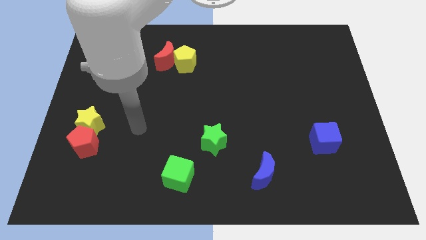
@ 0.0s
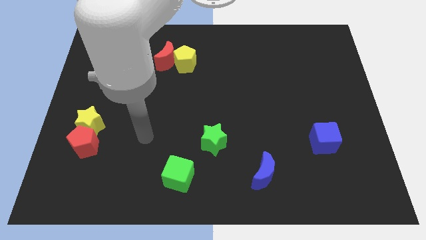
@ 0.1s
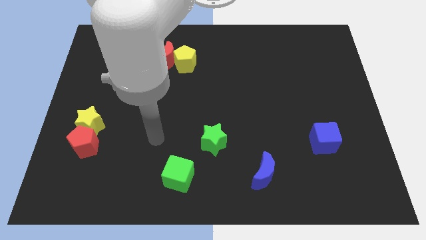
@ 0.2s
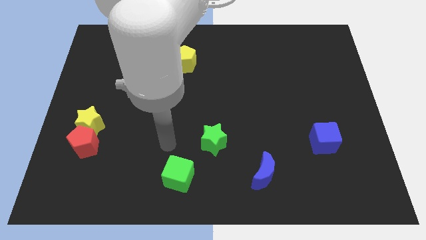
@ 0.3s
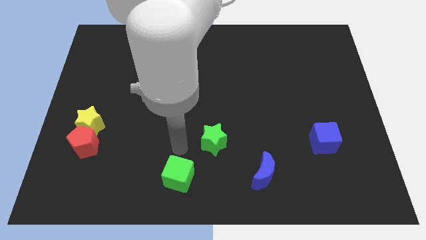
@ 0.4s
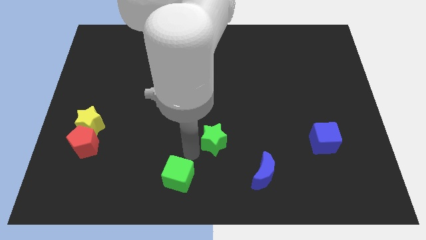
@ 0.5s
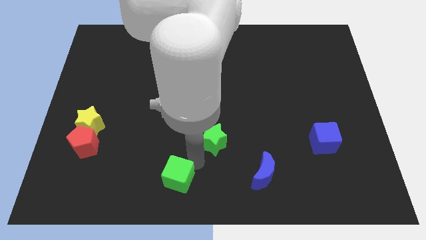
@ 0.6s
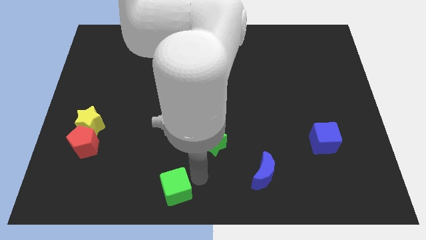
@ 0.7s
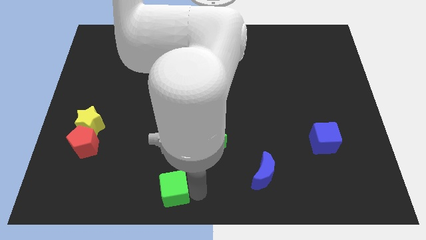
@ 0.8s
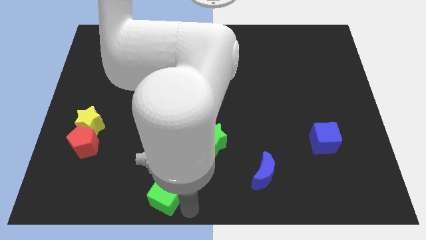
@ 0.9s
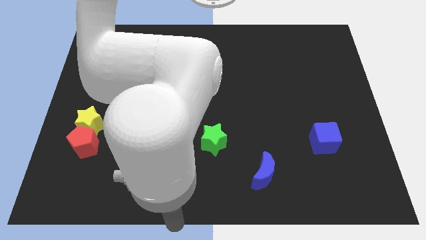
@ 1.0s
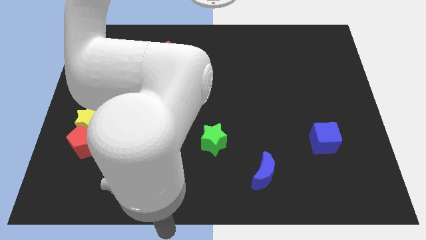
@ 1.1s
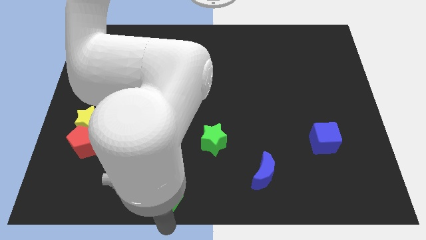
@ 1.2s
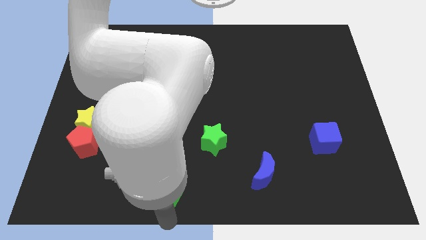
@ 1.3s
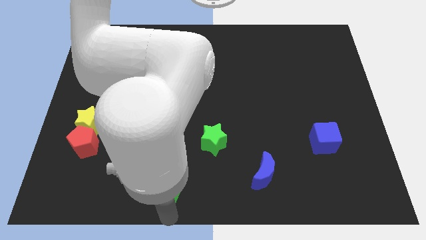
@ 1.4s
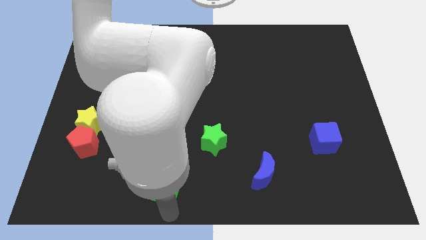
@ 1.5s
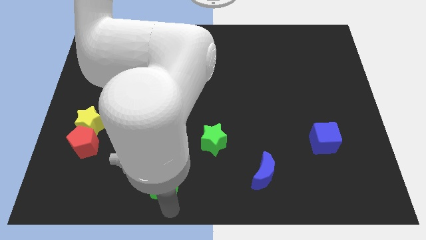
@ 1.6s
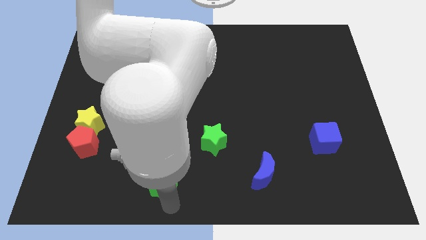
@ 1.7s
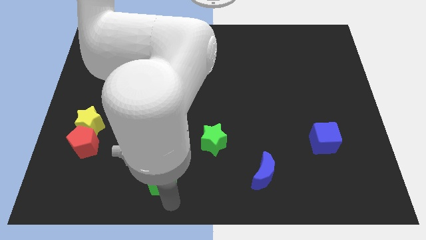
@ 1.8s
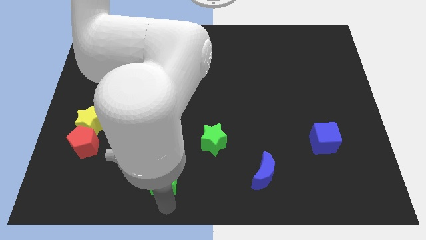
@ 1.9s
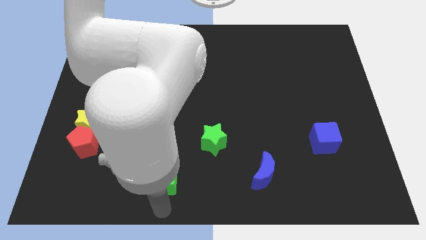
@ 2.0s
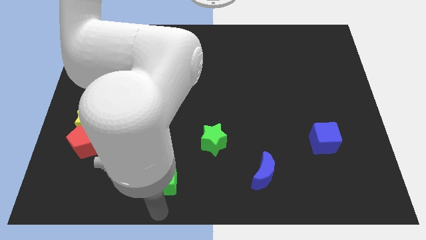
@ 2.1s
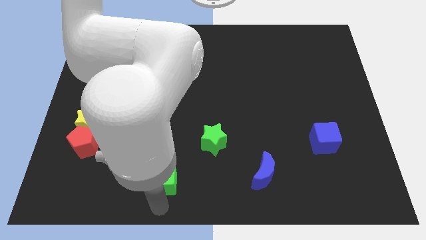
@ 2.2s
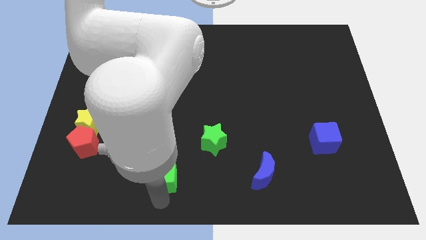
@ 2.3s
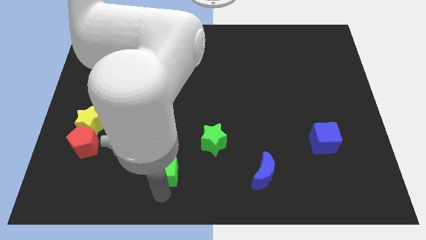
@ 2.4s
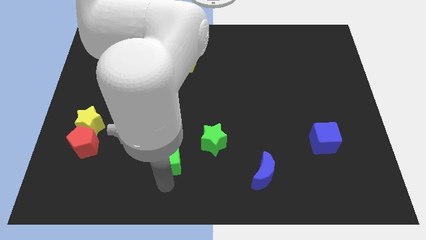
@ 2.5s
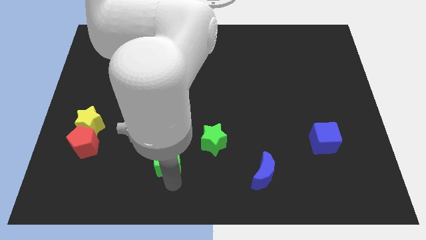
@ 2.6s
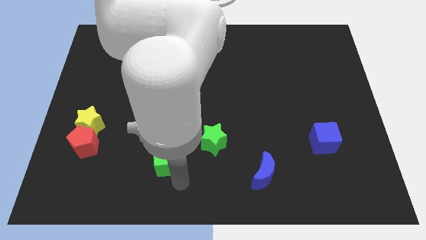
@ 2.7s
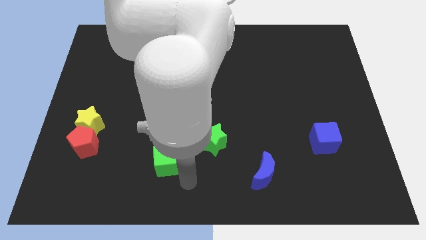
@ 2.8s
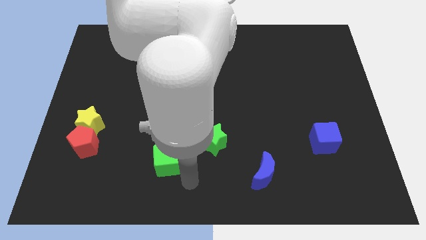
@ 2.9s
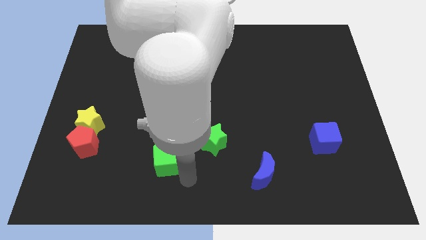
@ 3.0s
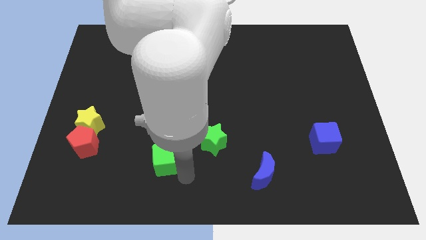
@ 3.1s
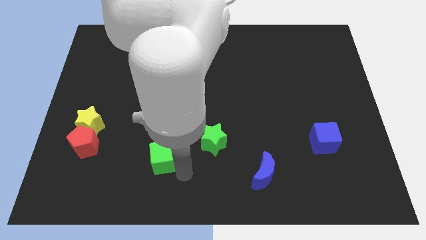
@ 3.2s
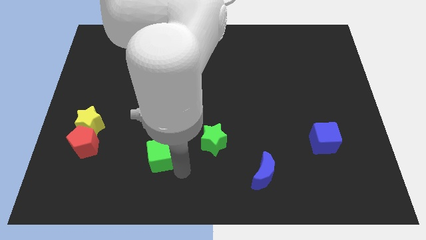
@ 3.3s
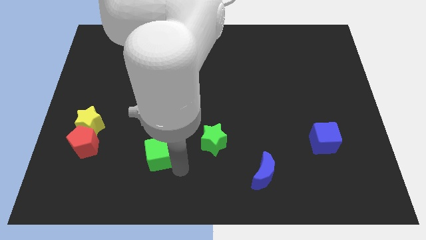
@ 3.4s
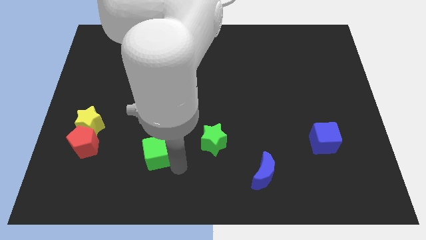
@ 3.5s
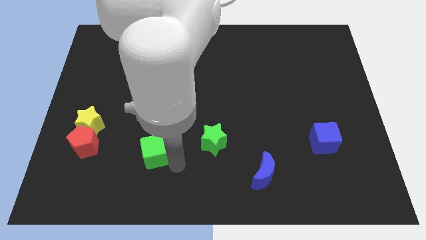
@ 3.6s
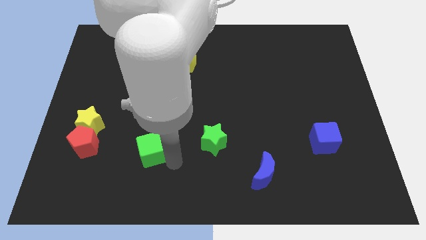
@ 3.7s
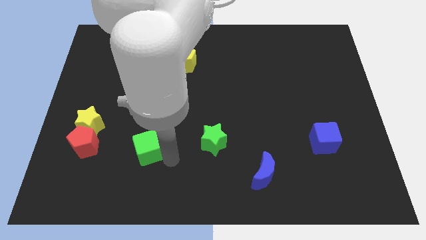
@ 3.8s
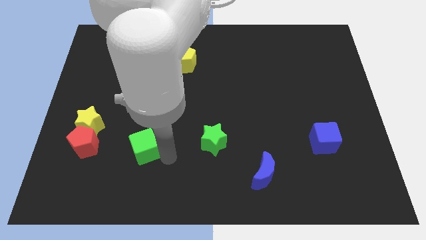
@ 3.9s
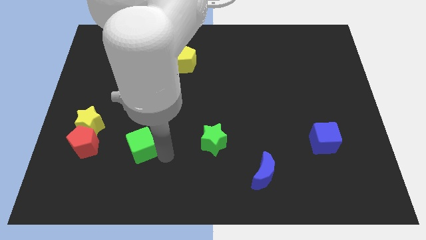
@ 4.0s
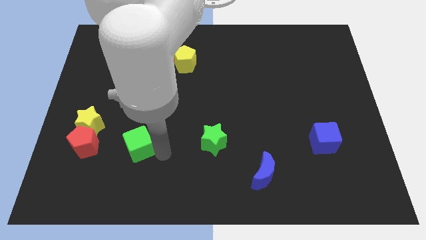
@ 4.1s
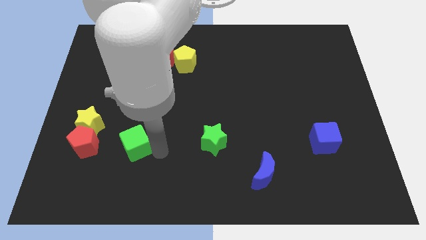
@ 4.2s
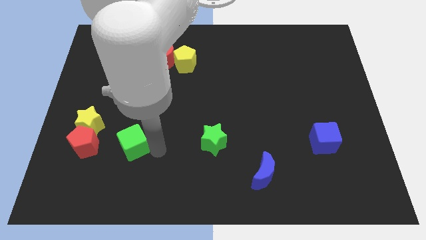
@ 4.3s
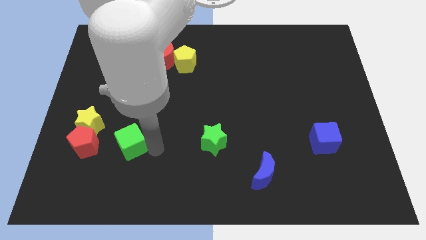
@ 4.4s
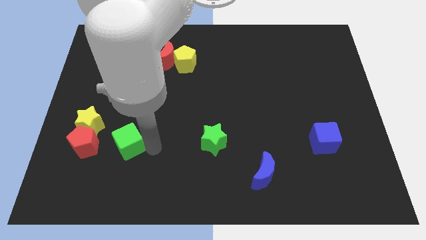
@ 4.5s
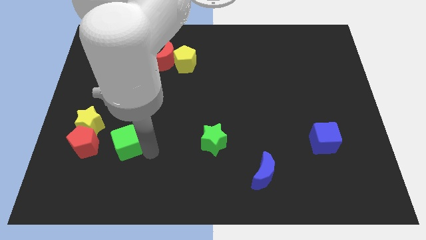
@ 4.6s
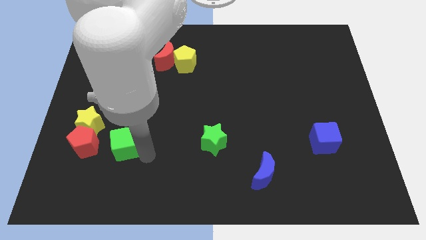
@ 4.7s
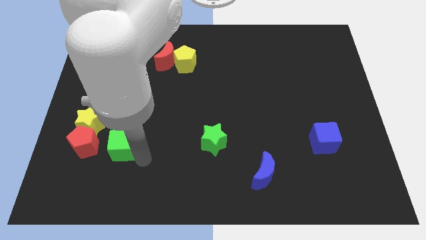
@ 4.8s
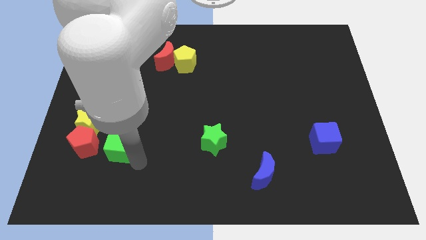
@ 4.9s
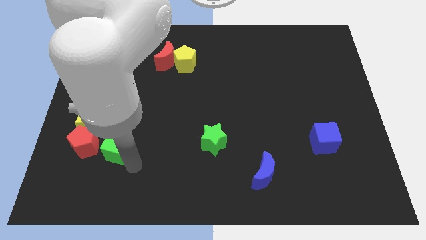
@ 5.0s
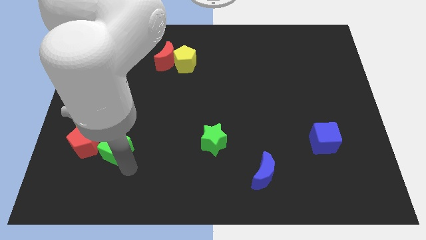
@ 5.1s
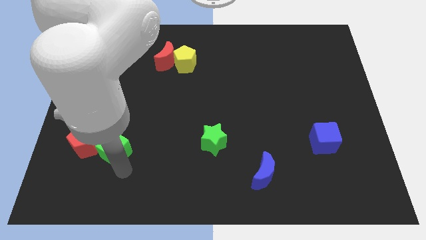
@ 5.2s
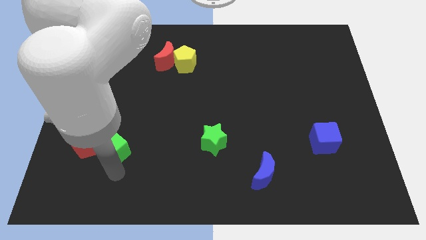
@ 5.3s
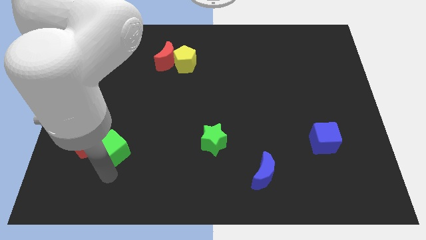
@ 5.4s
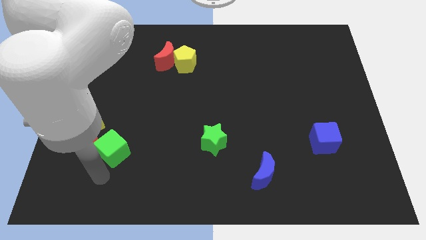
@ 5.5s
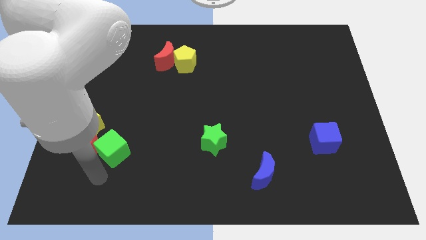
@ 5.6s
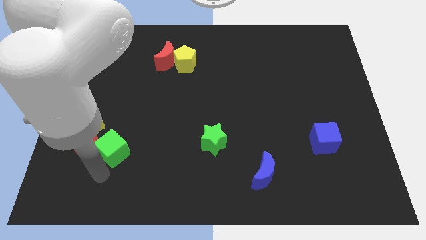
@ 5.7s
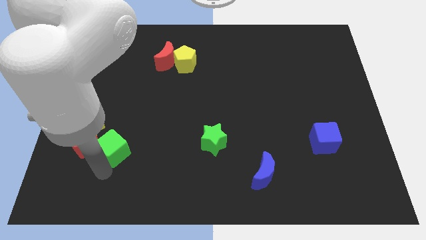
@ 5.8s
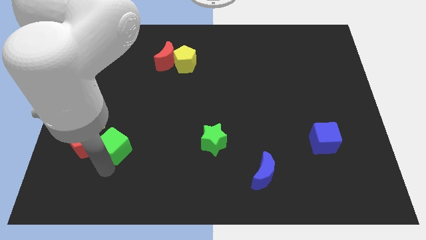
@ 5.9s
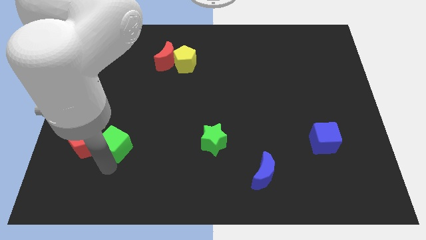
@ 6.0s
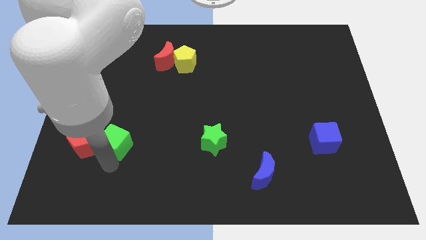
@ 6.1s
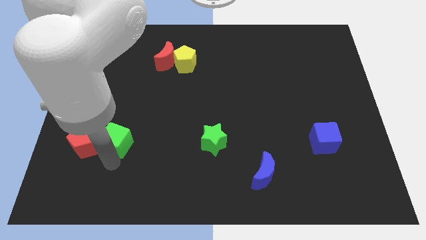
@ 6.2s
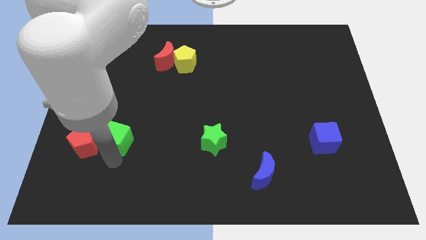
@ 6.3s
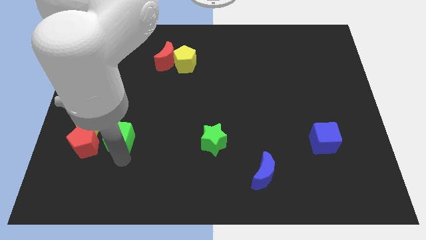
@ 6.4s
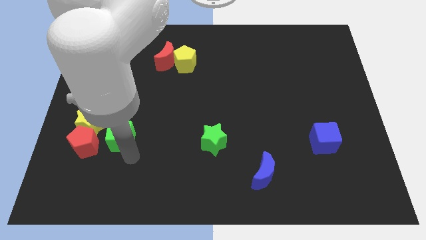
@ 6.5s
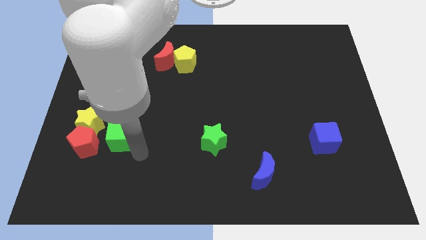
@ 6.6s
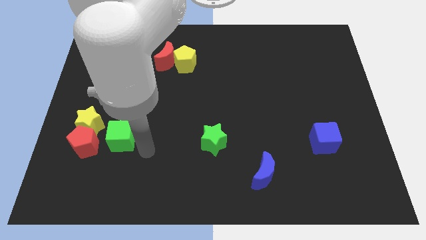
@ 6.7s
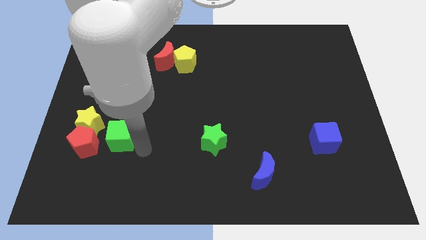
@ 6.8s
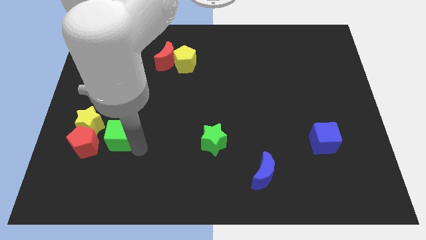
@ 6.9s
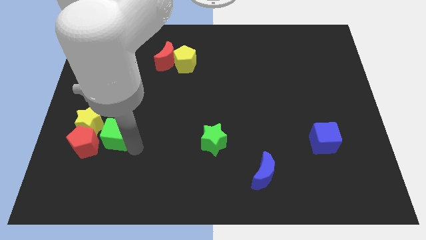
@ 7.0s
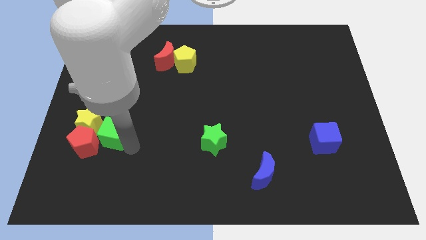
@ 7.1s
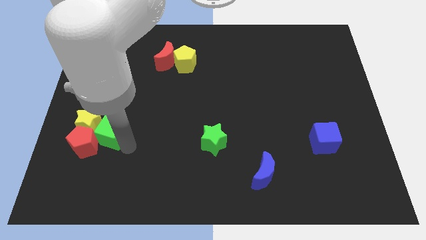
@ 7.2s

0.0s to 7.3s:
push the green cube to the yellow star

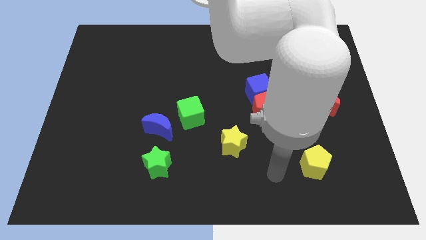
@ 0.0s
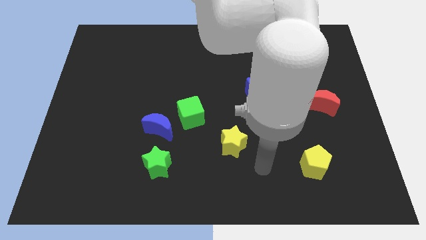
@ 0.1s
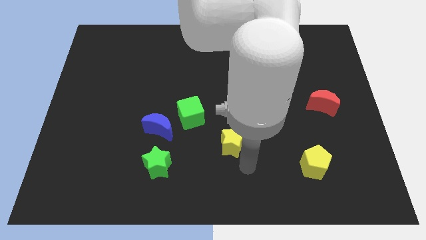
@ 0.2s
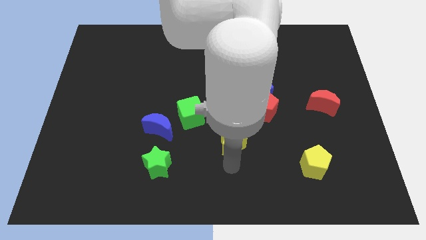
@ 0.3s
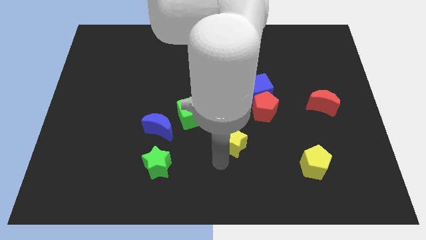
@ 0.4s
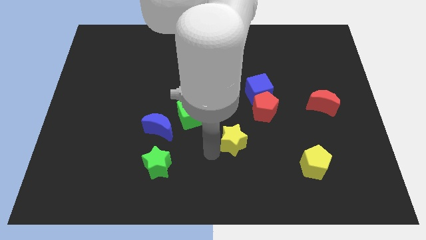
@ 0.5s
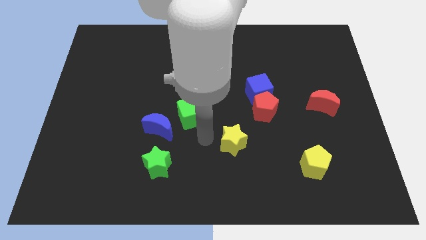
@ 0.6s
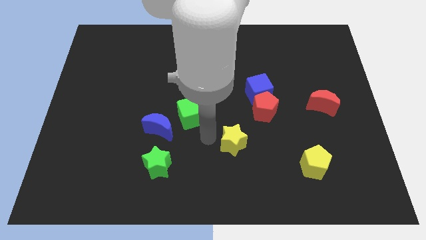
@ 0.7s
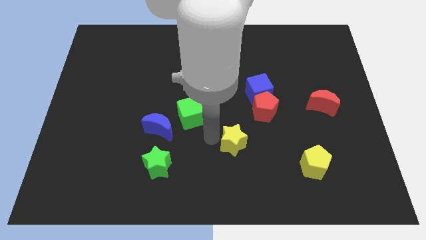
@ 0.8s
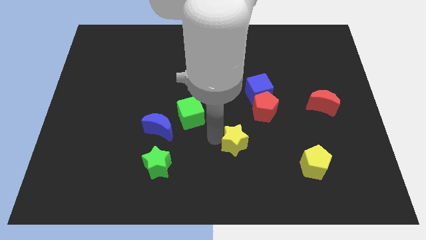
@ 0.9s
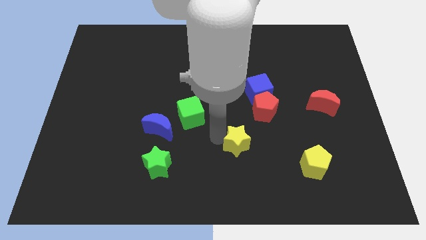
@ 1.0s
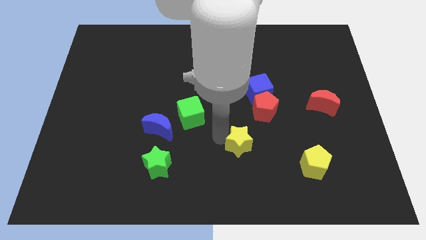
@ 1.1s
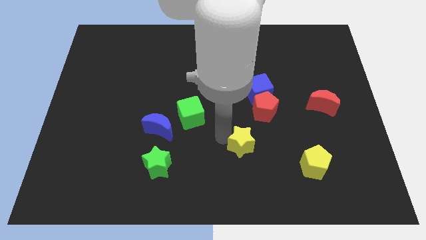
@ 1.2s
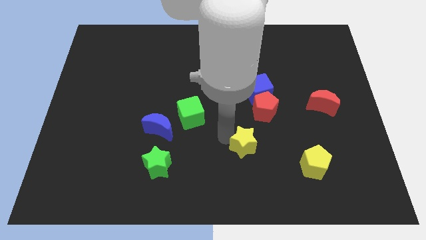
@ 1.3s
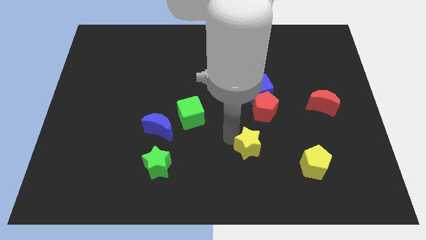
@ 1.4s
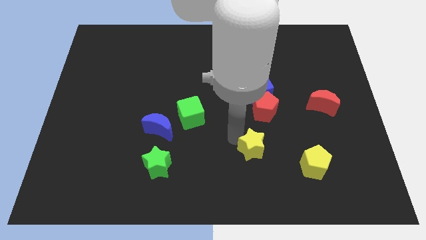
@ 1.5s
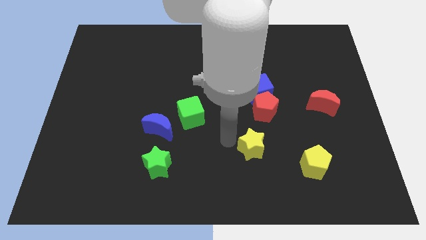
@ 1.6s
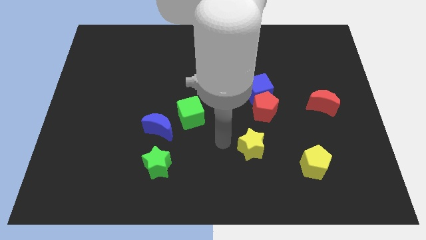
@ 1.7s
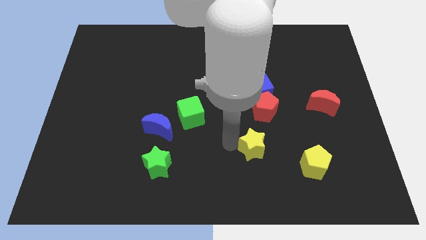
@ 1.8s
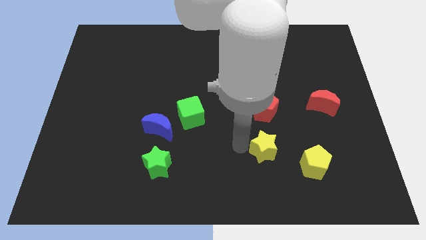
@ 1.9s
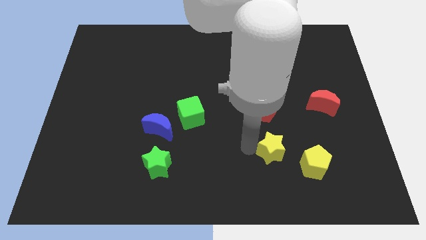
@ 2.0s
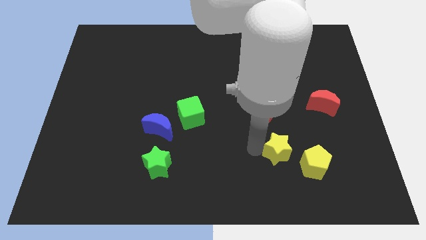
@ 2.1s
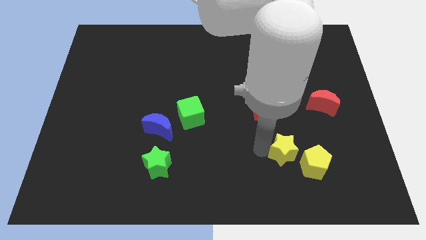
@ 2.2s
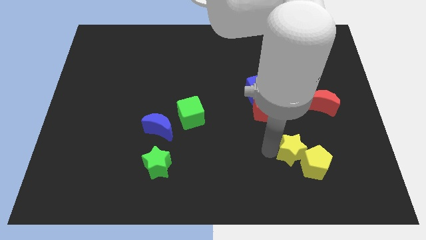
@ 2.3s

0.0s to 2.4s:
slide the yellow star to the yellow pentagon
